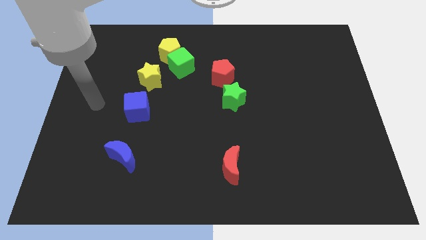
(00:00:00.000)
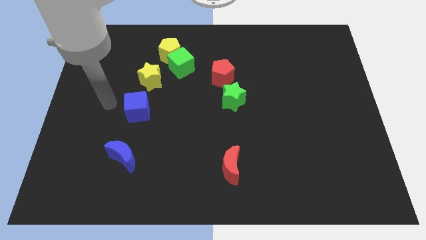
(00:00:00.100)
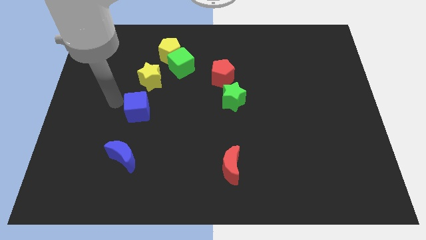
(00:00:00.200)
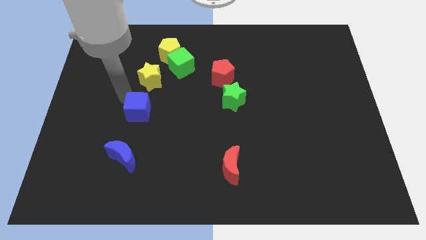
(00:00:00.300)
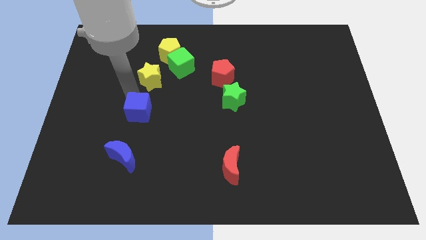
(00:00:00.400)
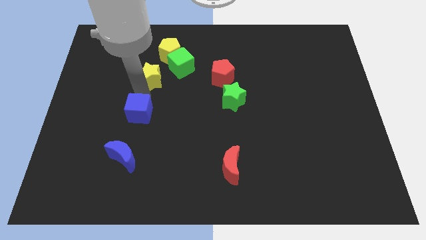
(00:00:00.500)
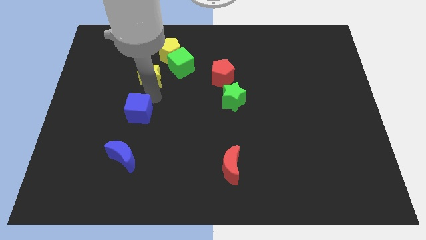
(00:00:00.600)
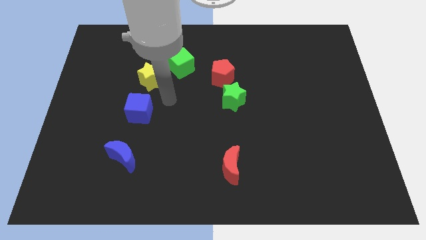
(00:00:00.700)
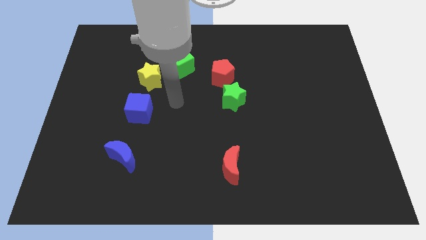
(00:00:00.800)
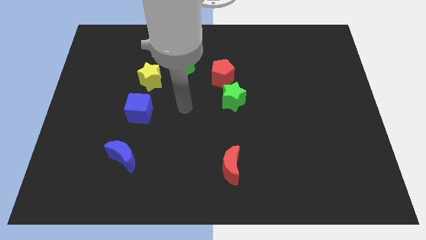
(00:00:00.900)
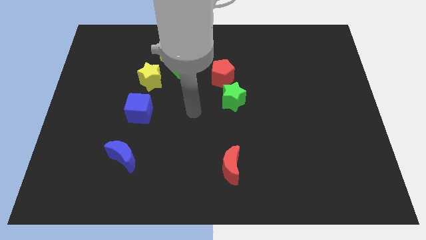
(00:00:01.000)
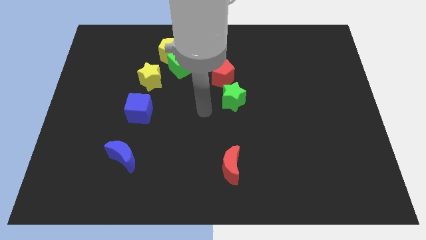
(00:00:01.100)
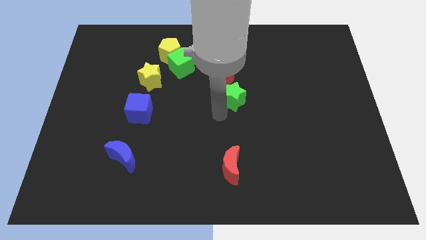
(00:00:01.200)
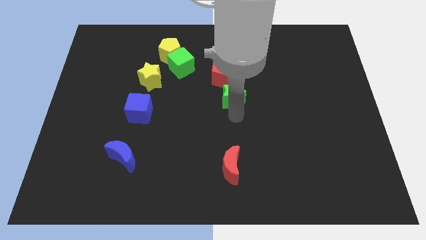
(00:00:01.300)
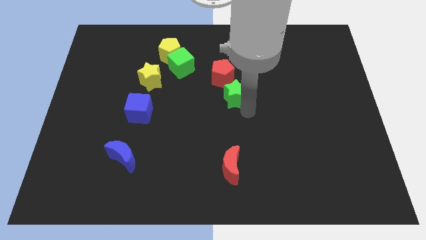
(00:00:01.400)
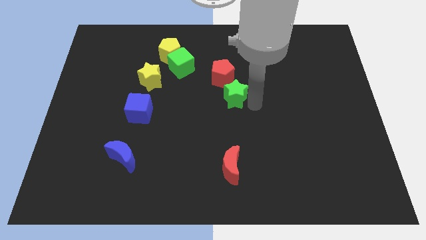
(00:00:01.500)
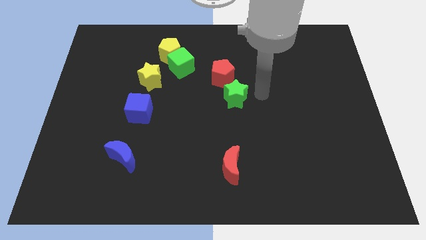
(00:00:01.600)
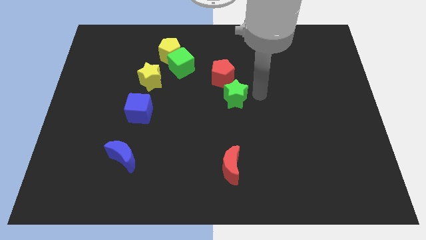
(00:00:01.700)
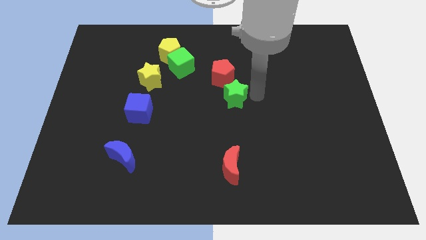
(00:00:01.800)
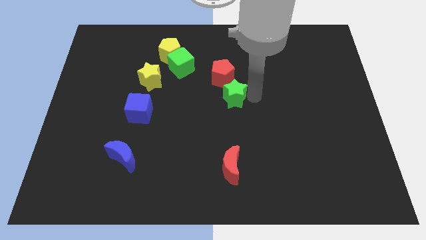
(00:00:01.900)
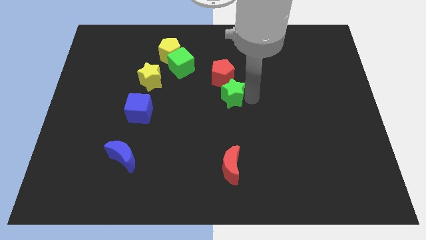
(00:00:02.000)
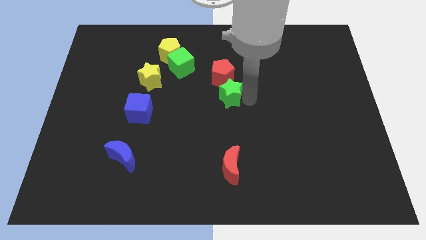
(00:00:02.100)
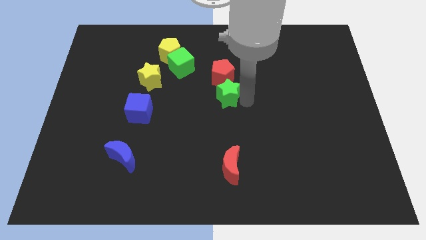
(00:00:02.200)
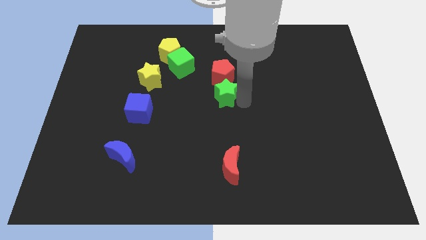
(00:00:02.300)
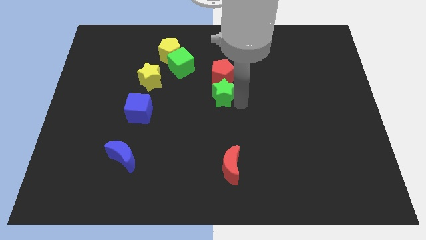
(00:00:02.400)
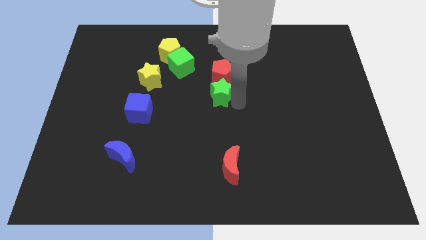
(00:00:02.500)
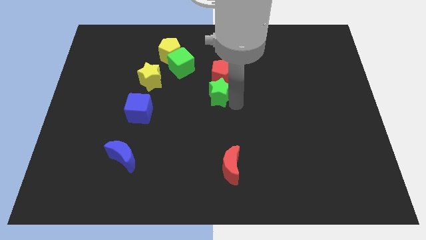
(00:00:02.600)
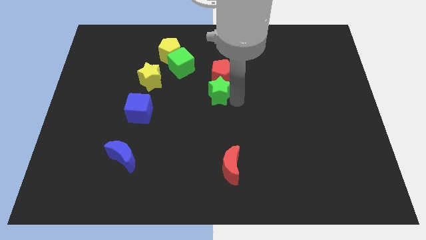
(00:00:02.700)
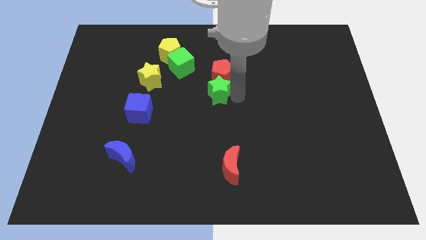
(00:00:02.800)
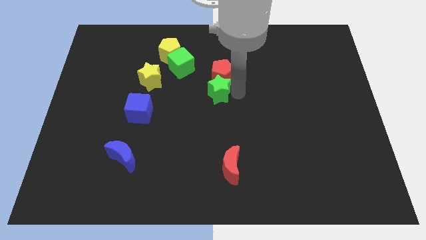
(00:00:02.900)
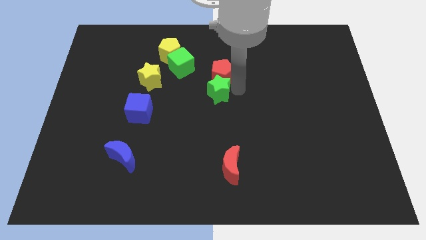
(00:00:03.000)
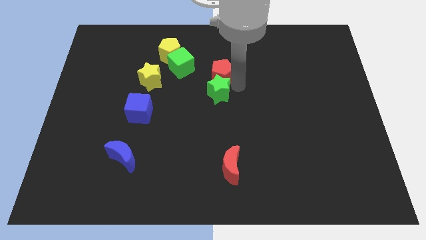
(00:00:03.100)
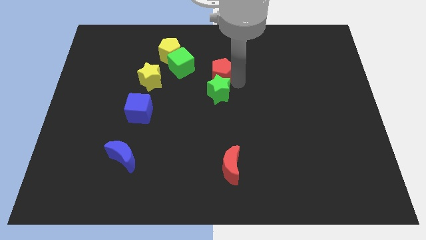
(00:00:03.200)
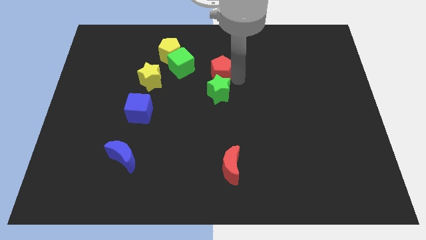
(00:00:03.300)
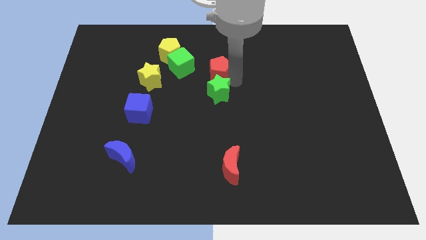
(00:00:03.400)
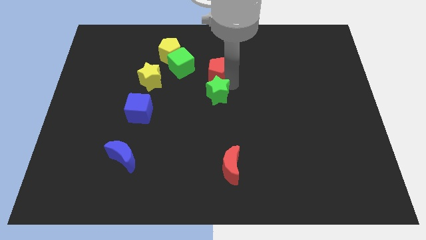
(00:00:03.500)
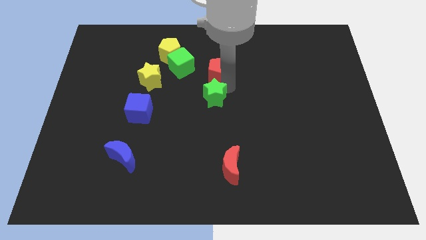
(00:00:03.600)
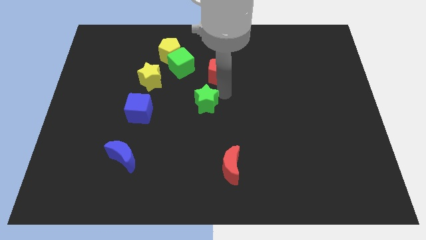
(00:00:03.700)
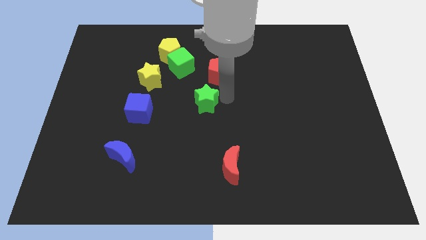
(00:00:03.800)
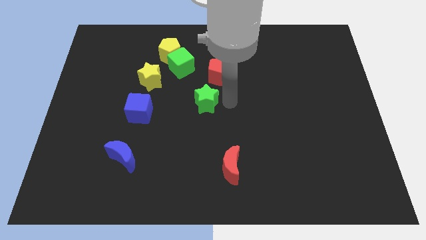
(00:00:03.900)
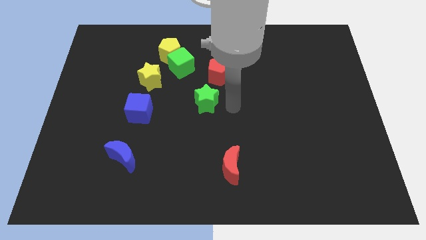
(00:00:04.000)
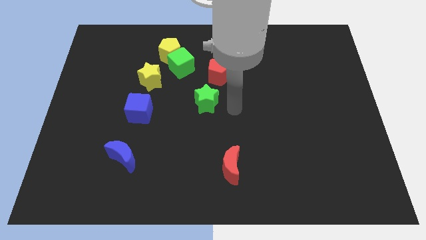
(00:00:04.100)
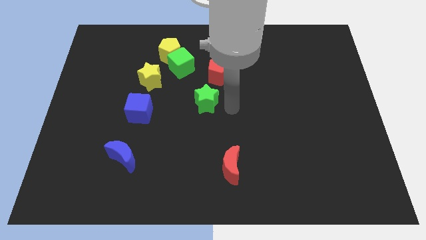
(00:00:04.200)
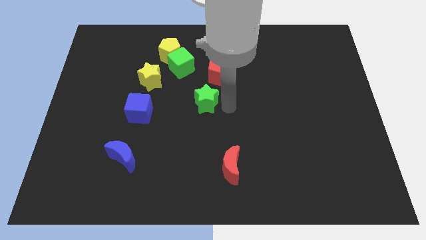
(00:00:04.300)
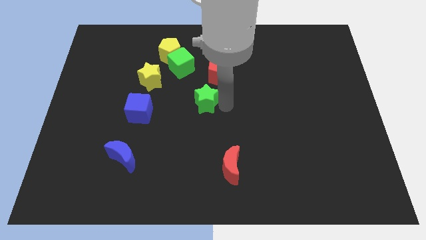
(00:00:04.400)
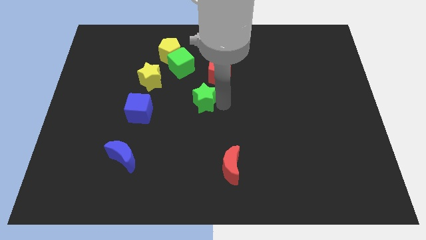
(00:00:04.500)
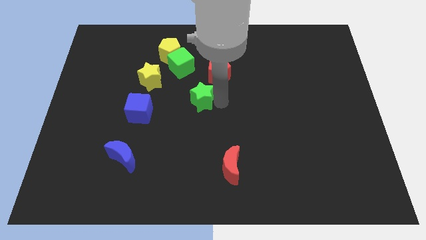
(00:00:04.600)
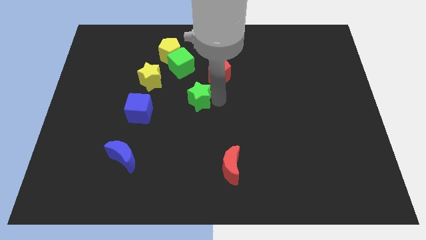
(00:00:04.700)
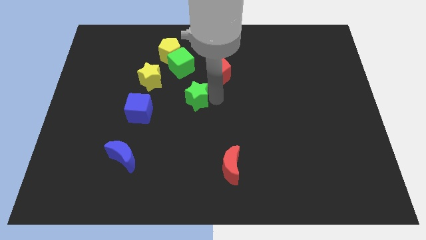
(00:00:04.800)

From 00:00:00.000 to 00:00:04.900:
slide the green star to the bottom of the green cube

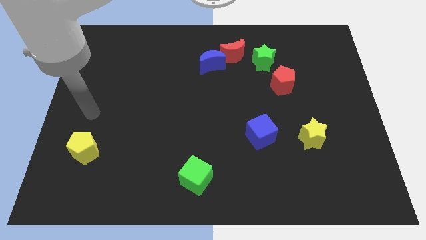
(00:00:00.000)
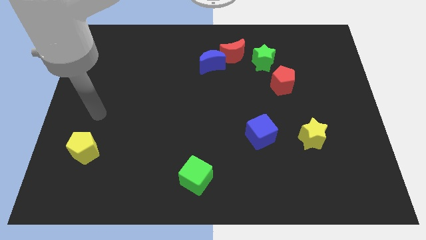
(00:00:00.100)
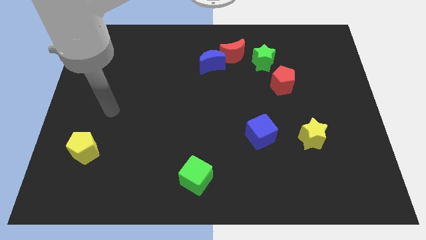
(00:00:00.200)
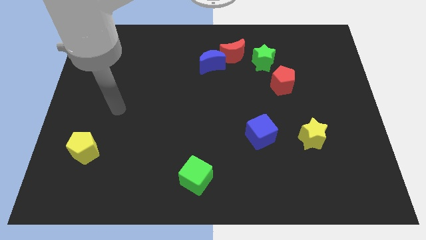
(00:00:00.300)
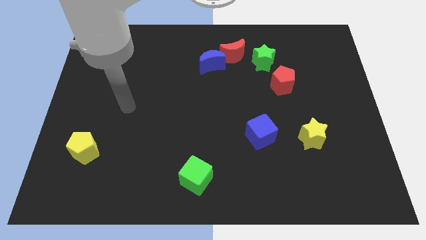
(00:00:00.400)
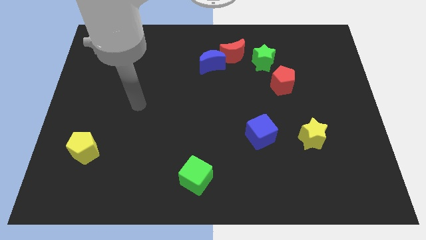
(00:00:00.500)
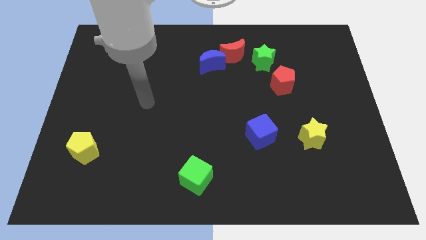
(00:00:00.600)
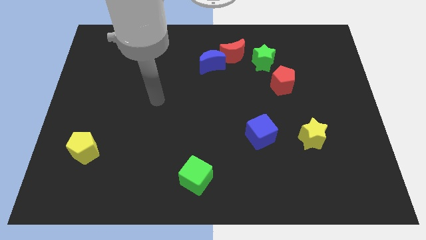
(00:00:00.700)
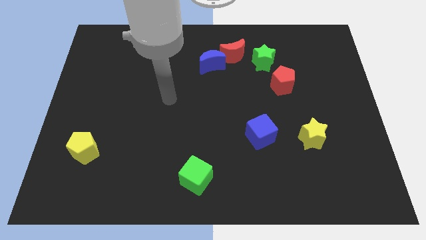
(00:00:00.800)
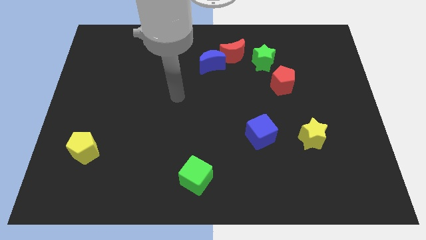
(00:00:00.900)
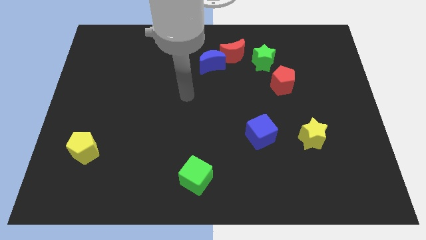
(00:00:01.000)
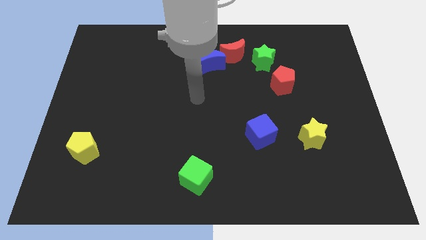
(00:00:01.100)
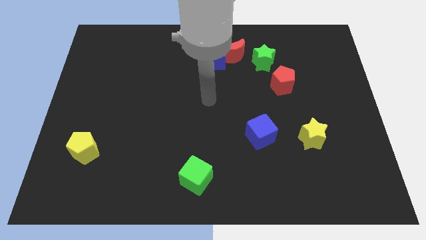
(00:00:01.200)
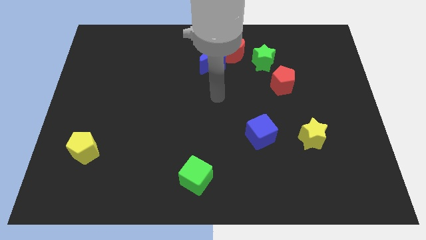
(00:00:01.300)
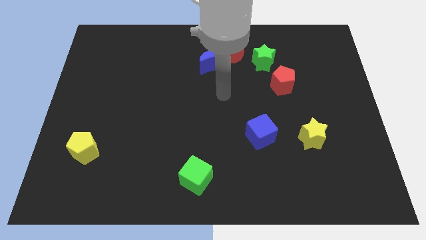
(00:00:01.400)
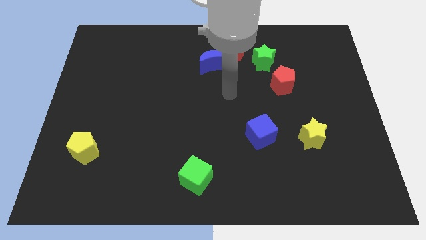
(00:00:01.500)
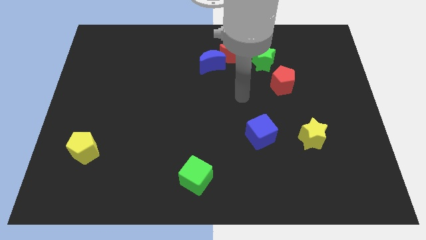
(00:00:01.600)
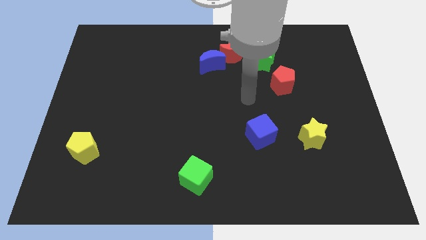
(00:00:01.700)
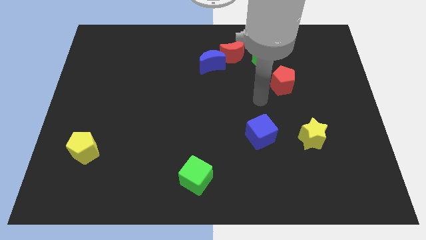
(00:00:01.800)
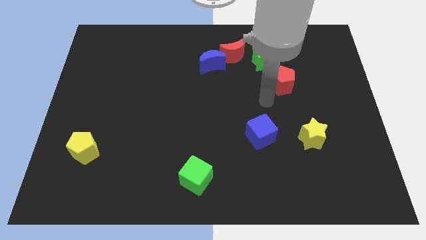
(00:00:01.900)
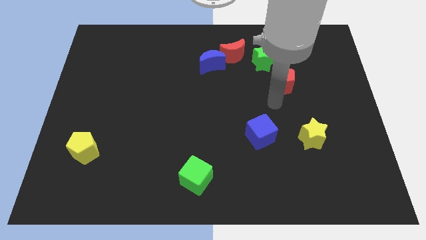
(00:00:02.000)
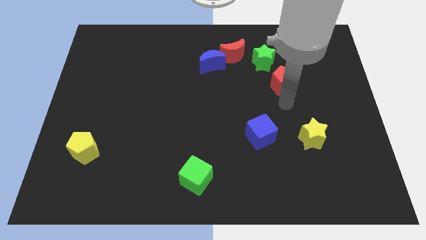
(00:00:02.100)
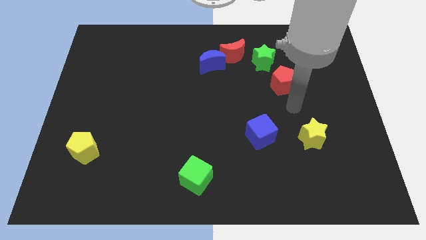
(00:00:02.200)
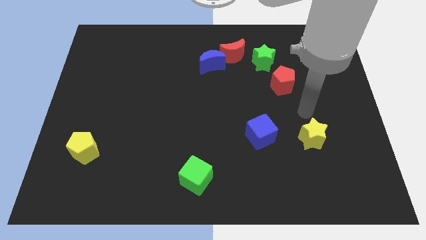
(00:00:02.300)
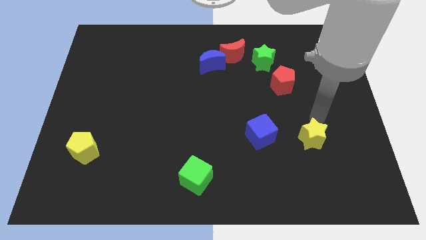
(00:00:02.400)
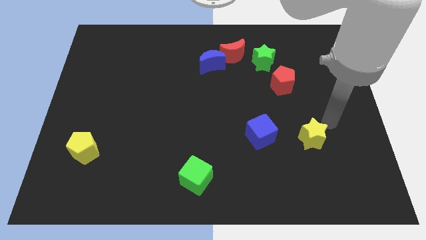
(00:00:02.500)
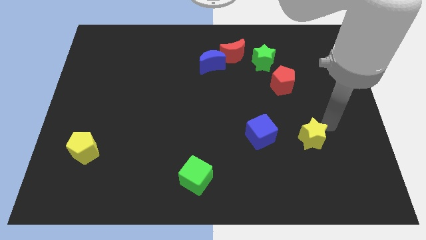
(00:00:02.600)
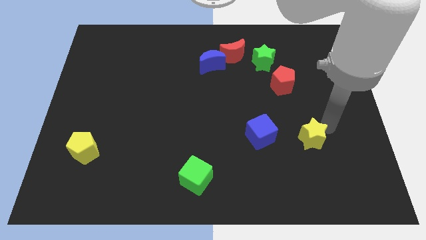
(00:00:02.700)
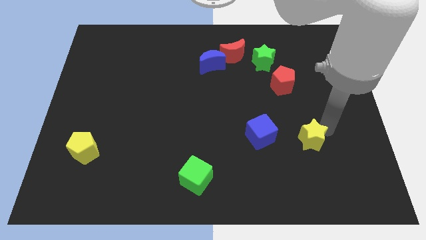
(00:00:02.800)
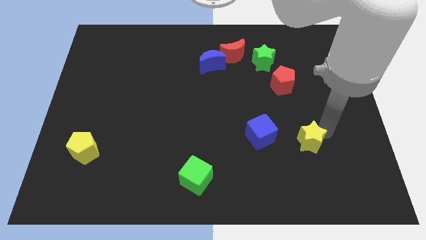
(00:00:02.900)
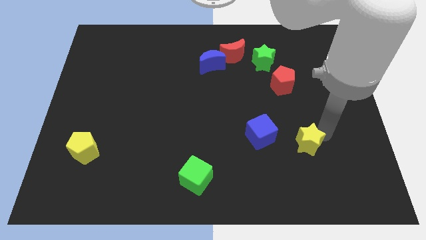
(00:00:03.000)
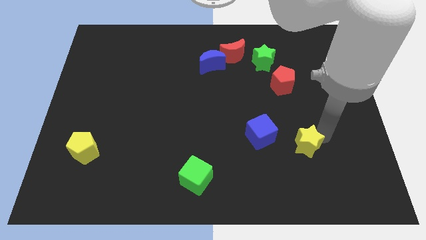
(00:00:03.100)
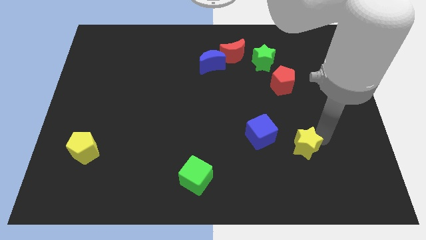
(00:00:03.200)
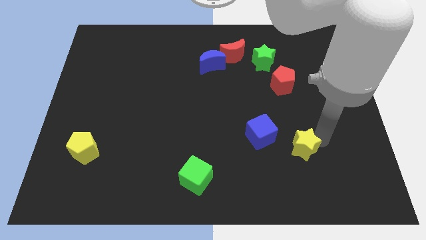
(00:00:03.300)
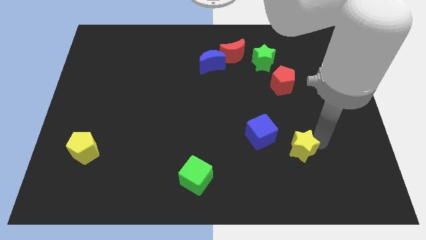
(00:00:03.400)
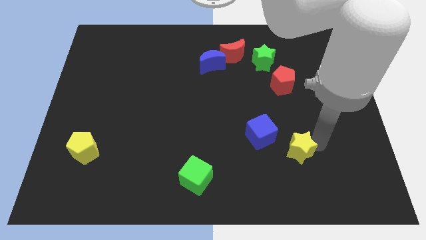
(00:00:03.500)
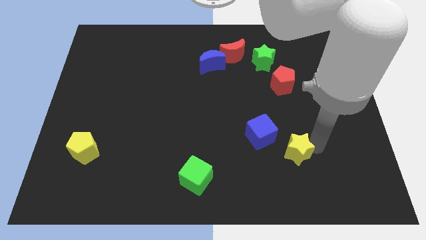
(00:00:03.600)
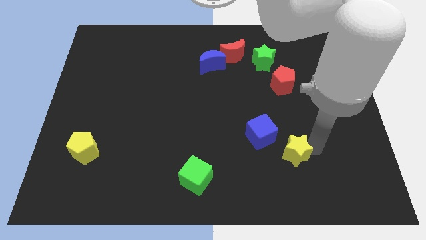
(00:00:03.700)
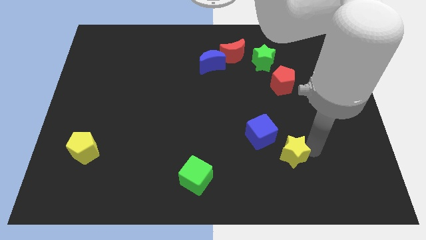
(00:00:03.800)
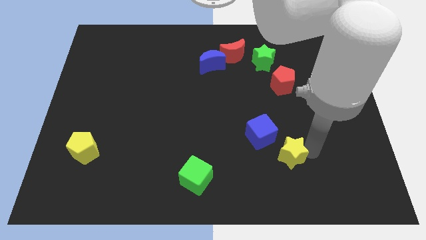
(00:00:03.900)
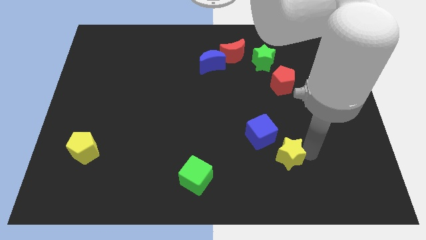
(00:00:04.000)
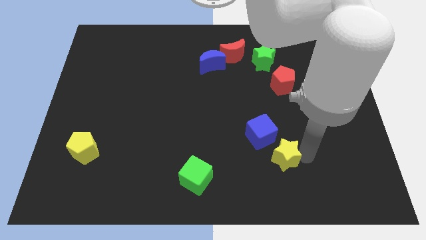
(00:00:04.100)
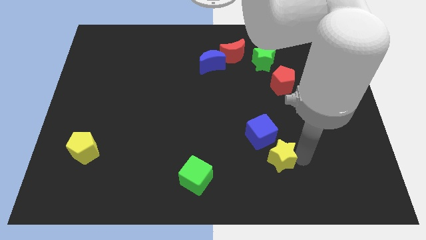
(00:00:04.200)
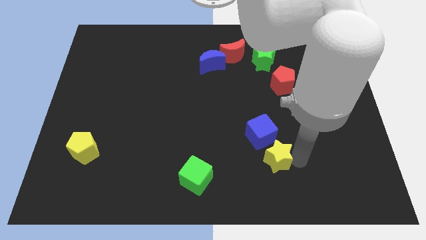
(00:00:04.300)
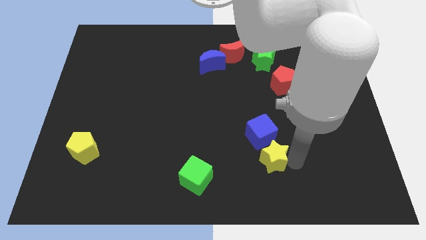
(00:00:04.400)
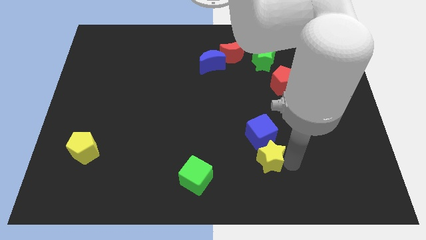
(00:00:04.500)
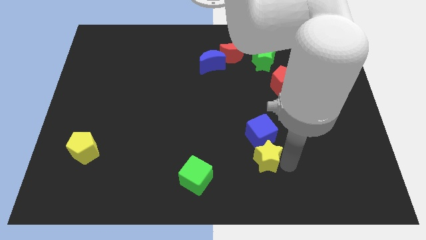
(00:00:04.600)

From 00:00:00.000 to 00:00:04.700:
slide the yellow star to the bottom left side of the blue cube
